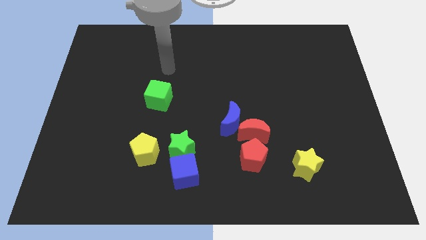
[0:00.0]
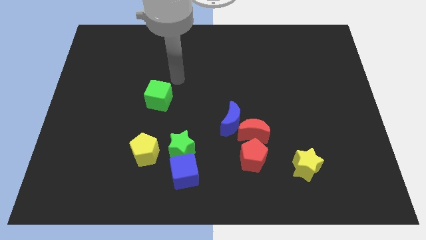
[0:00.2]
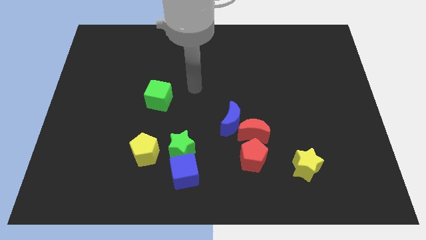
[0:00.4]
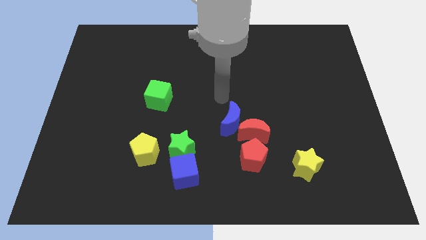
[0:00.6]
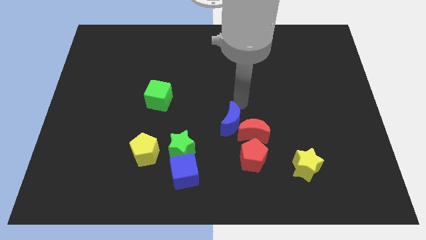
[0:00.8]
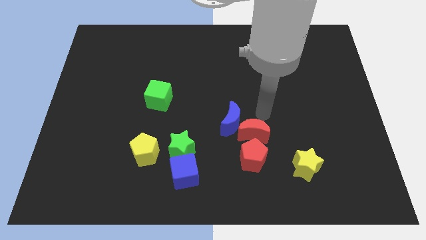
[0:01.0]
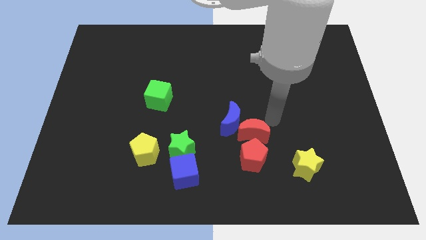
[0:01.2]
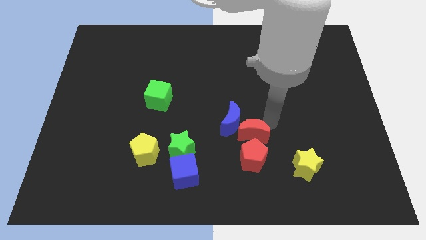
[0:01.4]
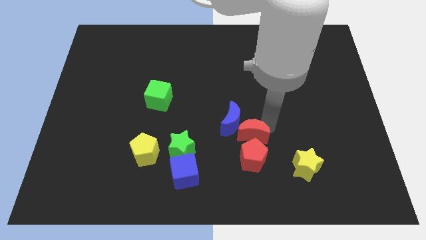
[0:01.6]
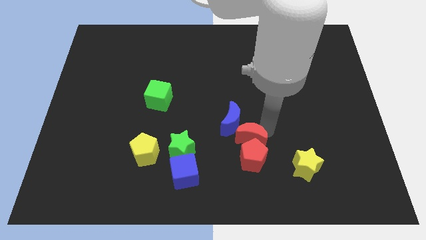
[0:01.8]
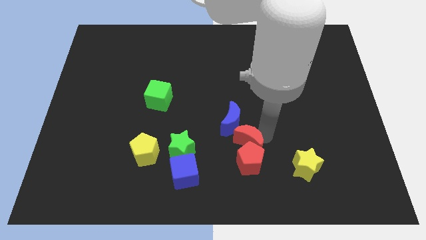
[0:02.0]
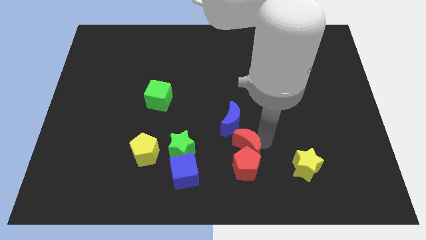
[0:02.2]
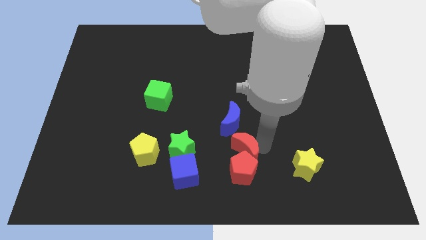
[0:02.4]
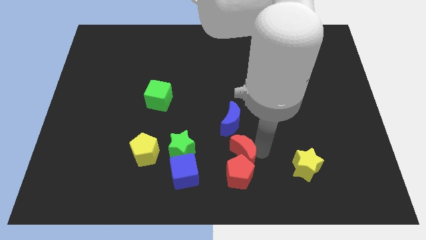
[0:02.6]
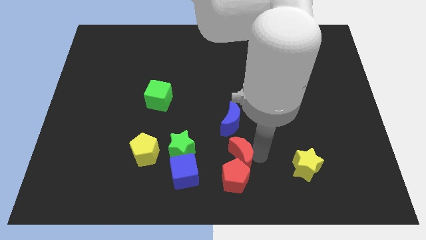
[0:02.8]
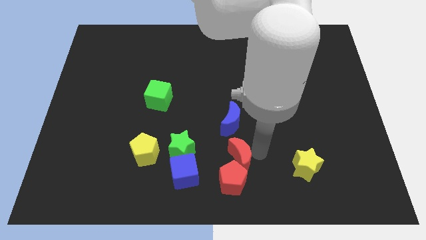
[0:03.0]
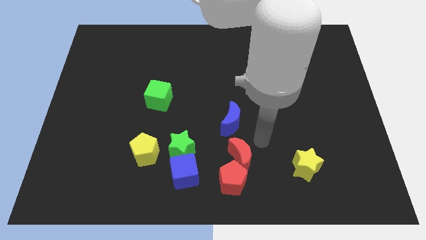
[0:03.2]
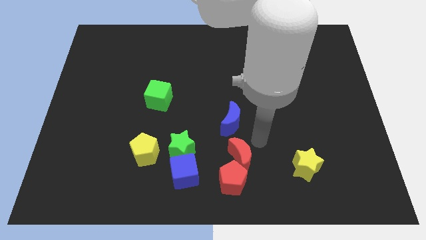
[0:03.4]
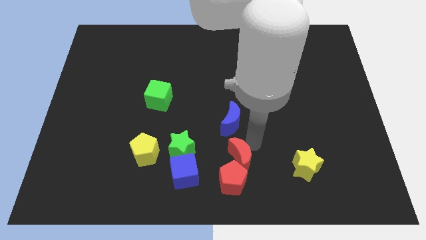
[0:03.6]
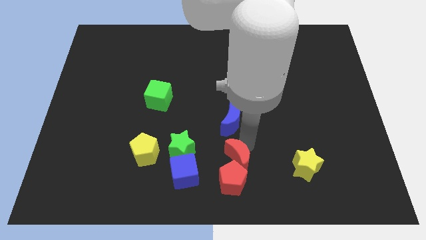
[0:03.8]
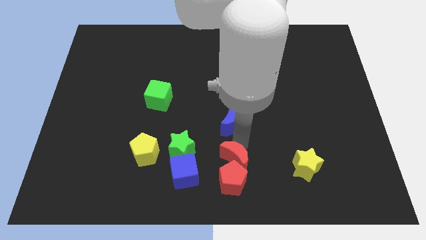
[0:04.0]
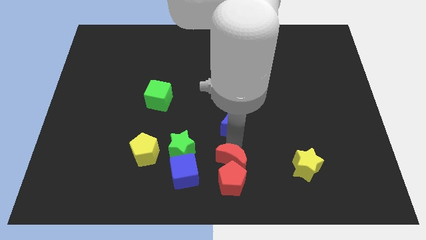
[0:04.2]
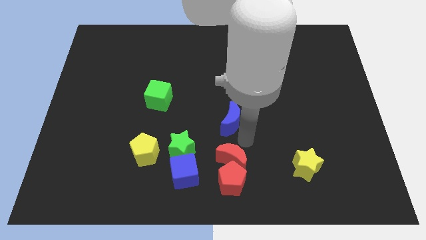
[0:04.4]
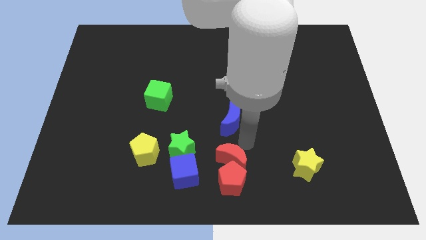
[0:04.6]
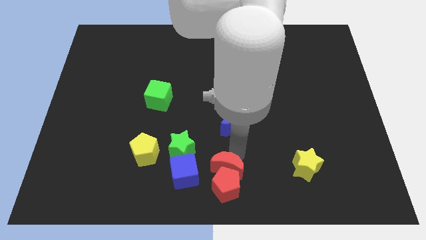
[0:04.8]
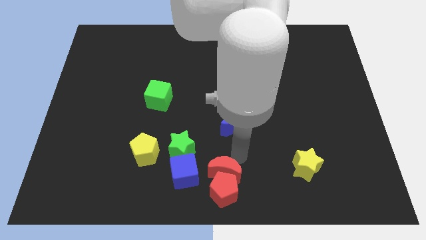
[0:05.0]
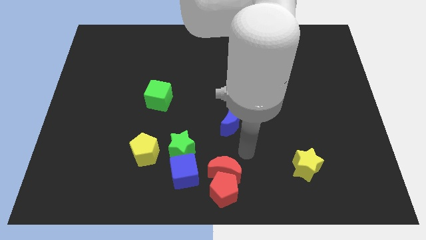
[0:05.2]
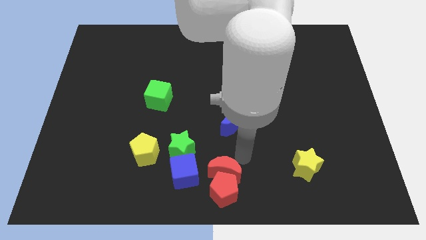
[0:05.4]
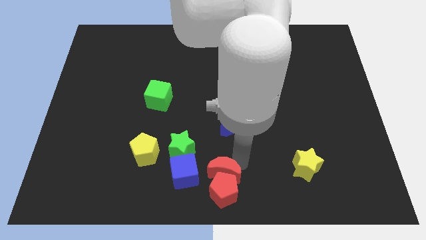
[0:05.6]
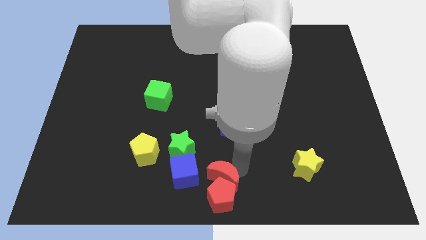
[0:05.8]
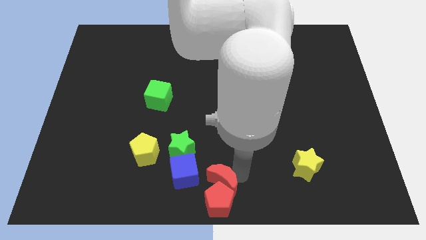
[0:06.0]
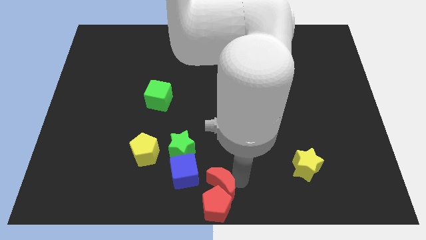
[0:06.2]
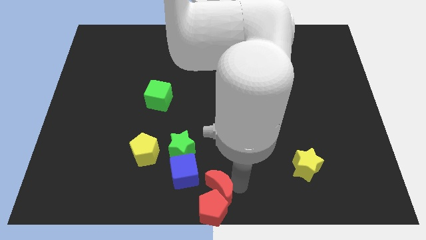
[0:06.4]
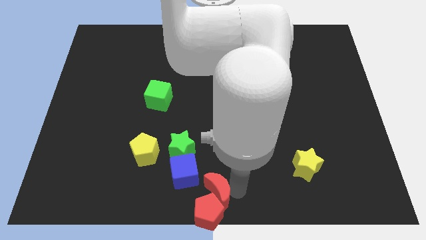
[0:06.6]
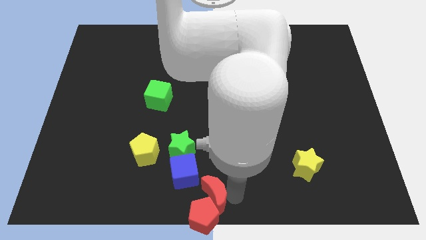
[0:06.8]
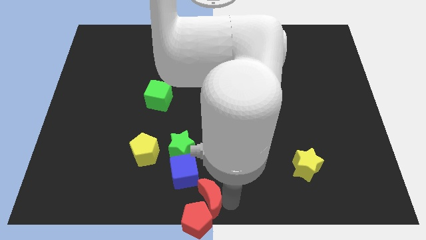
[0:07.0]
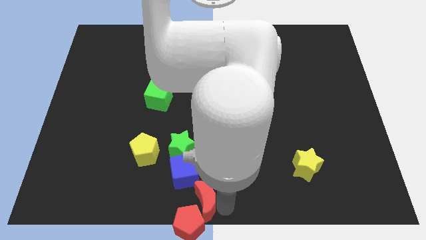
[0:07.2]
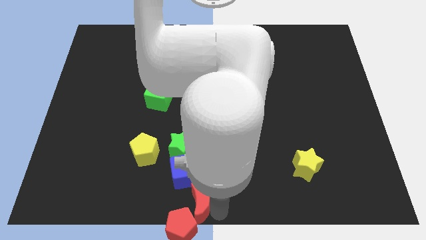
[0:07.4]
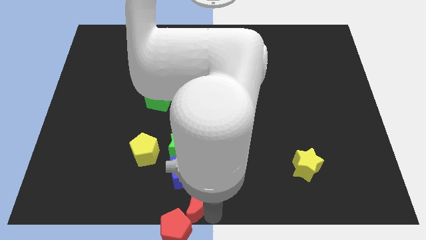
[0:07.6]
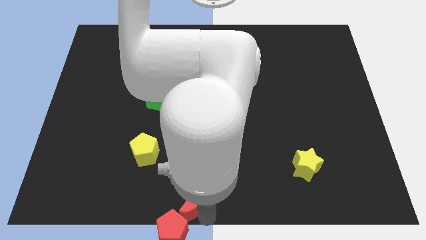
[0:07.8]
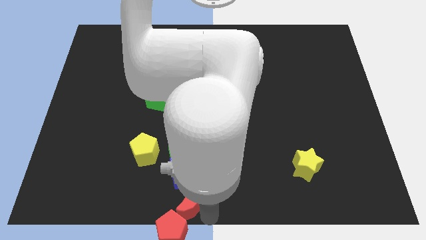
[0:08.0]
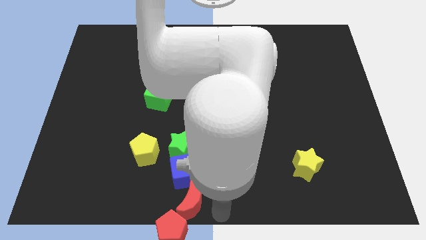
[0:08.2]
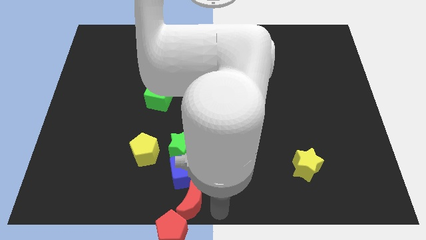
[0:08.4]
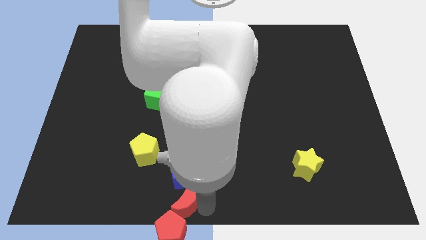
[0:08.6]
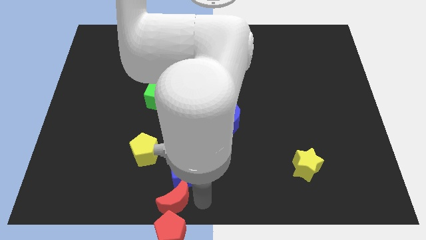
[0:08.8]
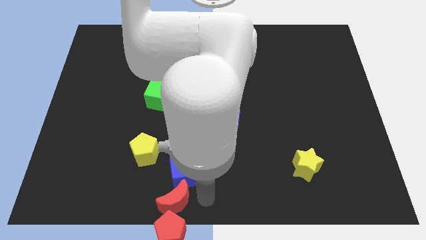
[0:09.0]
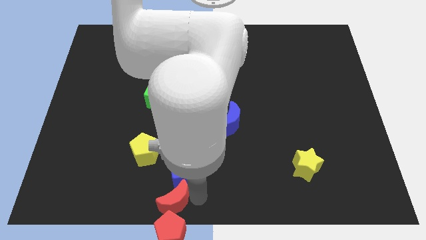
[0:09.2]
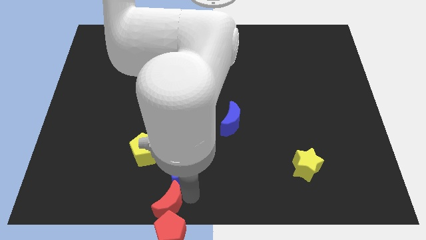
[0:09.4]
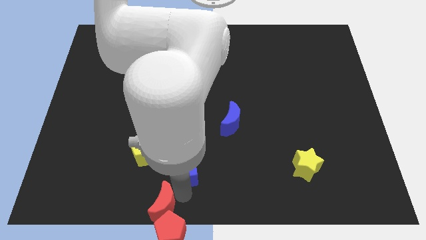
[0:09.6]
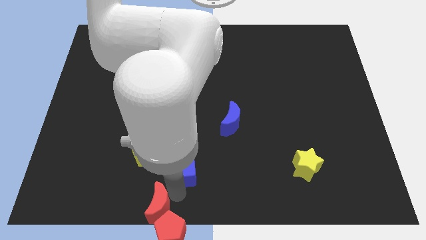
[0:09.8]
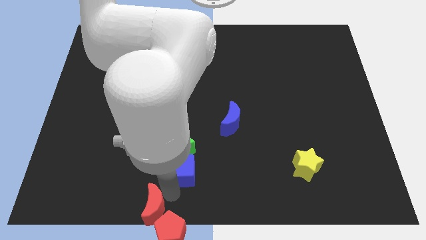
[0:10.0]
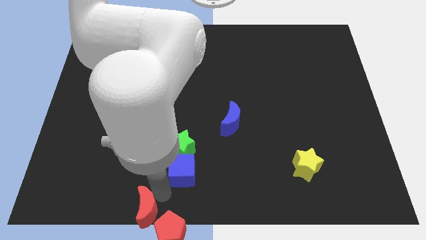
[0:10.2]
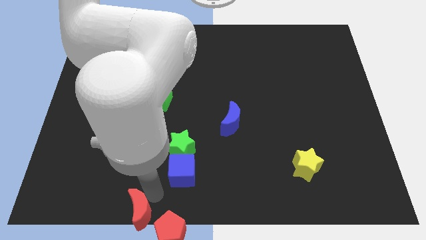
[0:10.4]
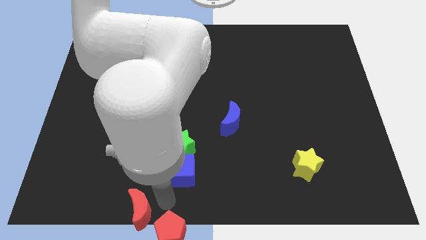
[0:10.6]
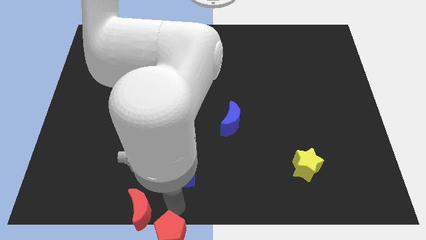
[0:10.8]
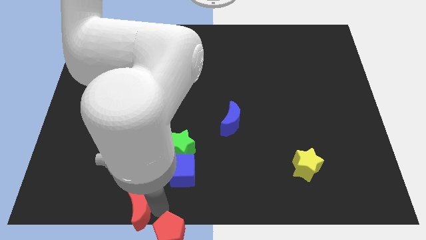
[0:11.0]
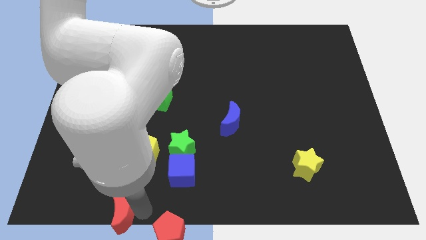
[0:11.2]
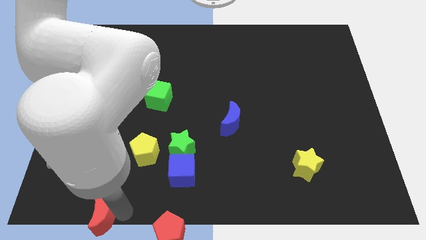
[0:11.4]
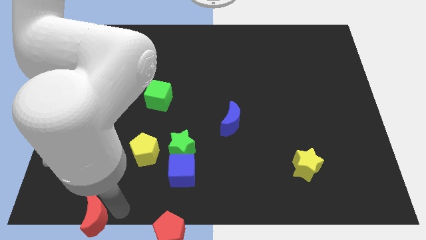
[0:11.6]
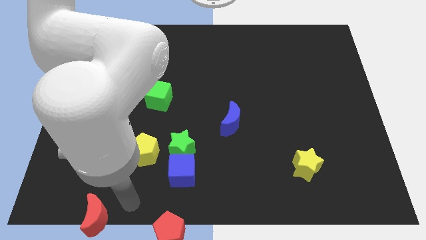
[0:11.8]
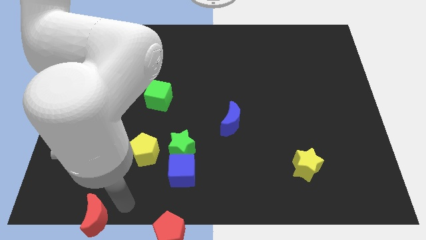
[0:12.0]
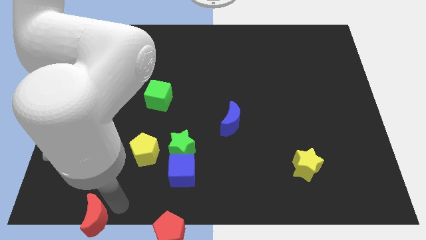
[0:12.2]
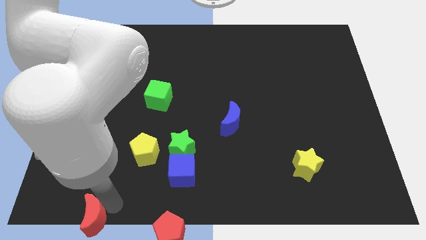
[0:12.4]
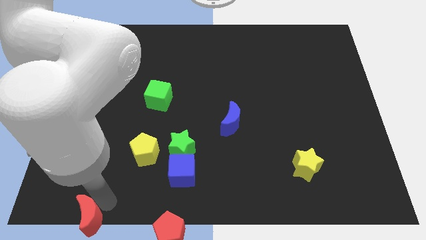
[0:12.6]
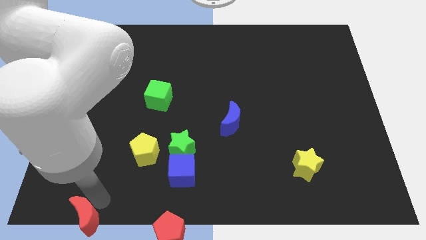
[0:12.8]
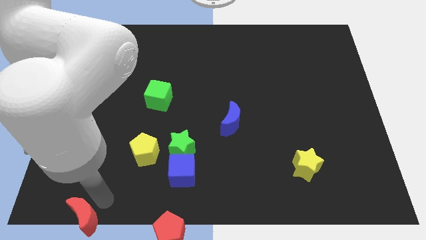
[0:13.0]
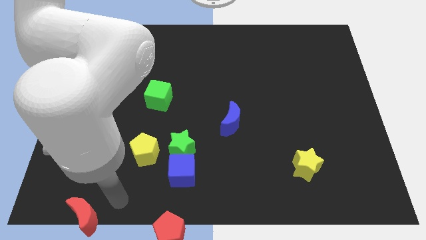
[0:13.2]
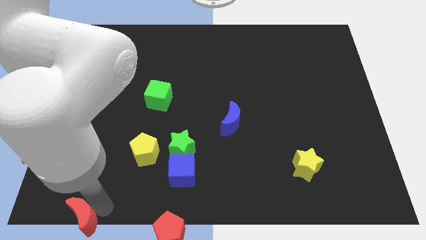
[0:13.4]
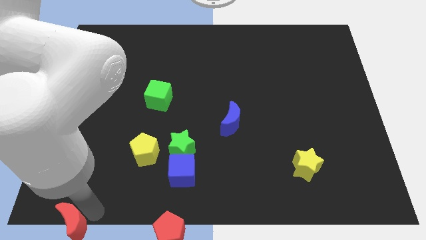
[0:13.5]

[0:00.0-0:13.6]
move the red moon to the bottom left corner
